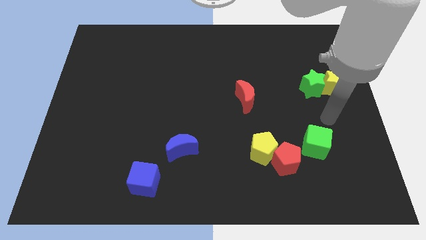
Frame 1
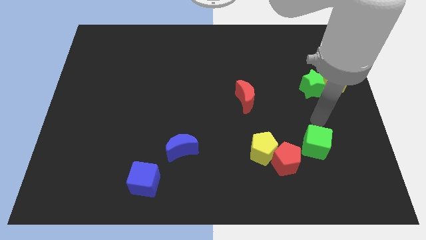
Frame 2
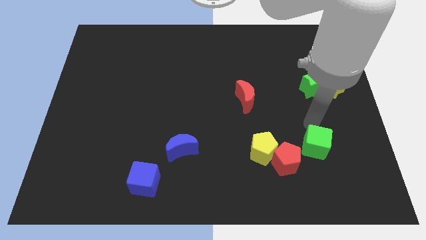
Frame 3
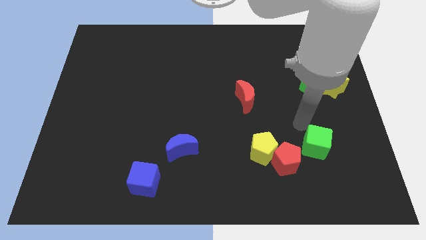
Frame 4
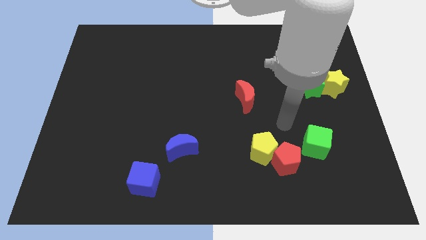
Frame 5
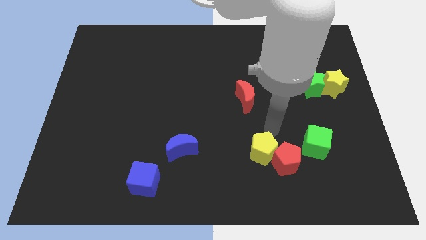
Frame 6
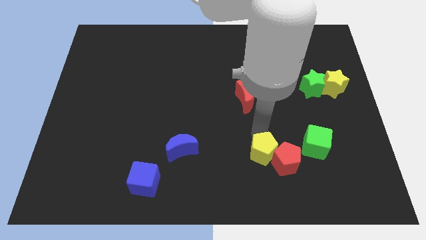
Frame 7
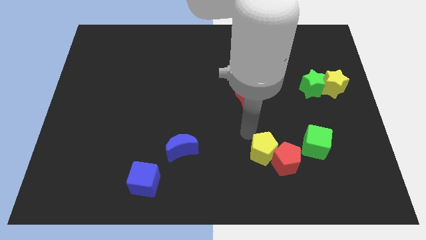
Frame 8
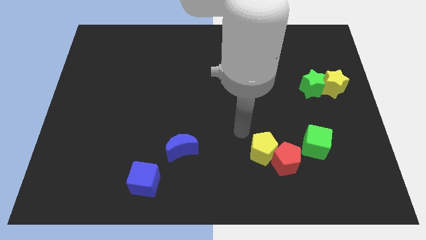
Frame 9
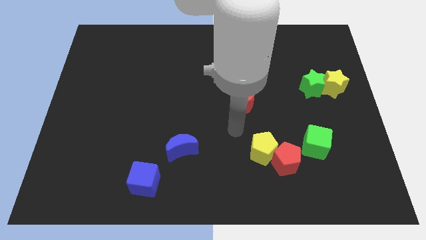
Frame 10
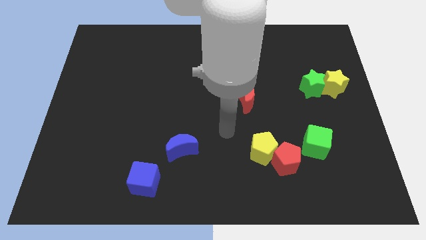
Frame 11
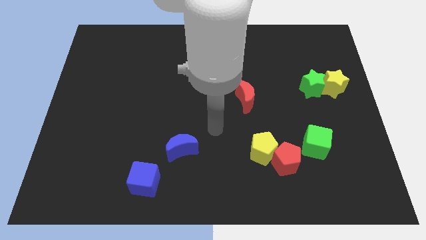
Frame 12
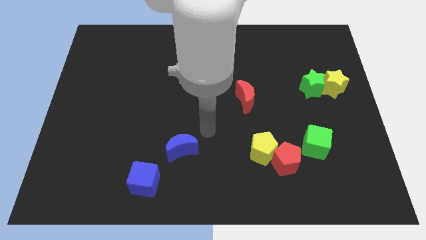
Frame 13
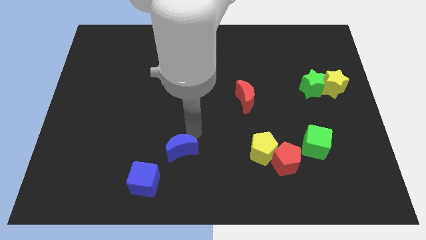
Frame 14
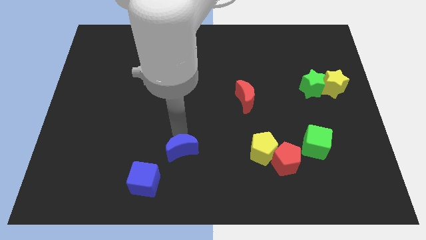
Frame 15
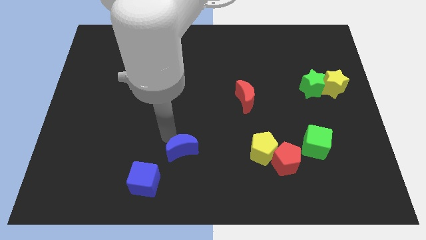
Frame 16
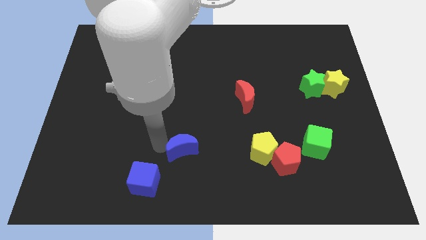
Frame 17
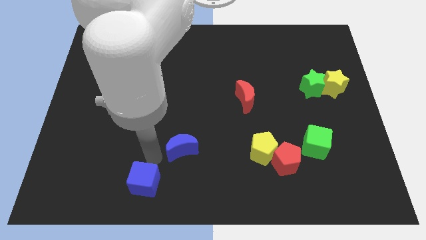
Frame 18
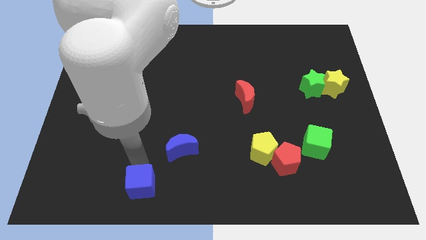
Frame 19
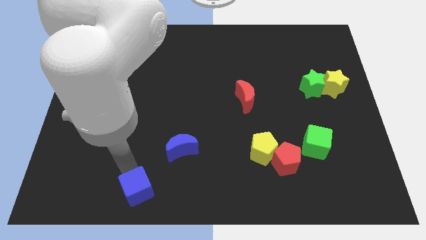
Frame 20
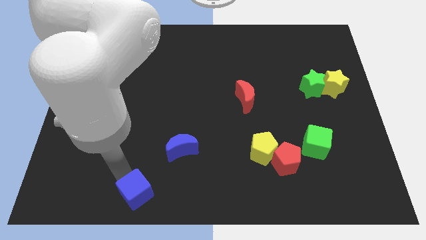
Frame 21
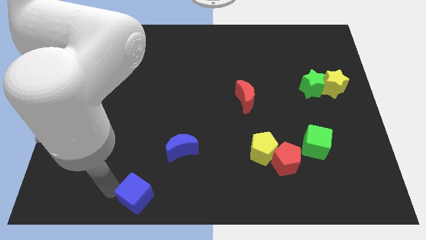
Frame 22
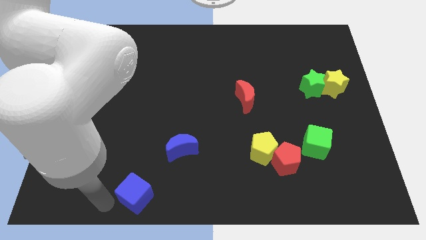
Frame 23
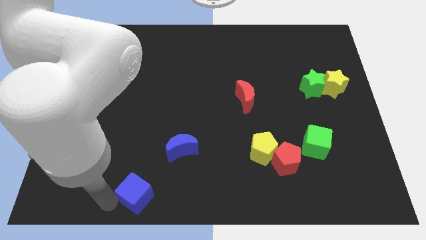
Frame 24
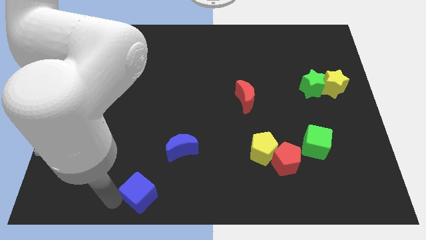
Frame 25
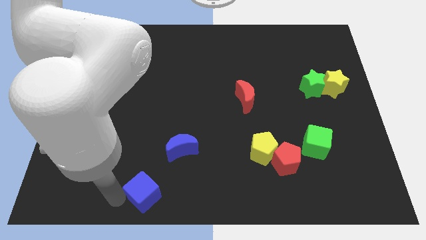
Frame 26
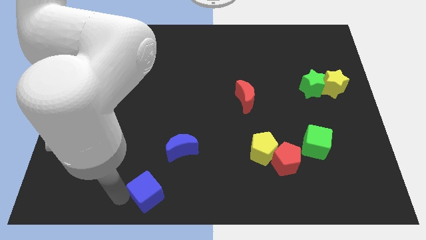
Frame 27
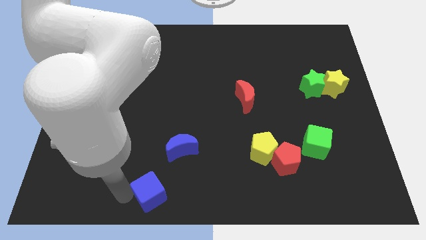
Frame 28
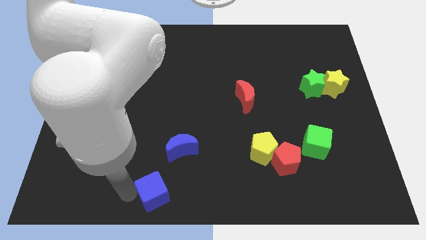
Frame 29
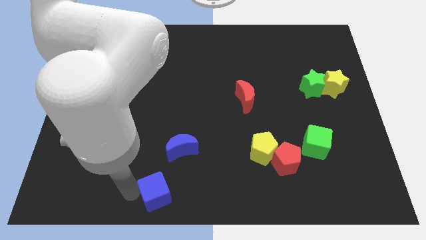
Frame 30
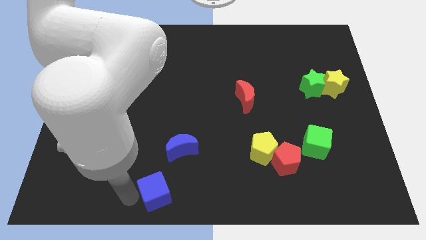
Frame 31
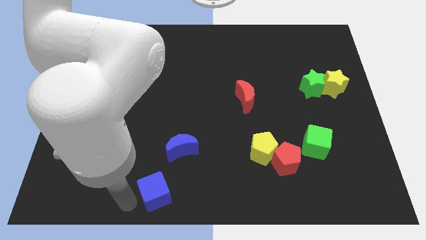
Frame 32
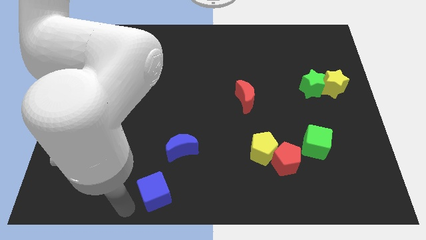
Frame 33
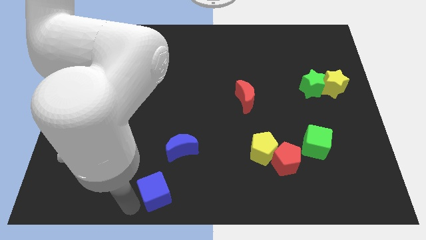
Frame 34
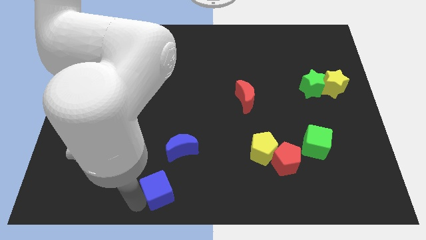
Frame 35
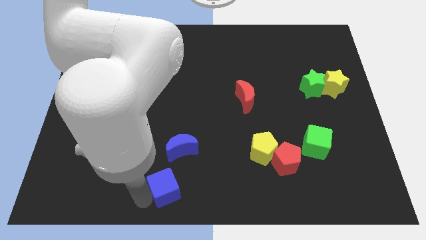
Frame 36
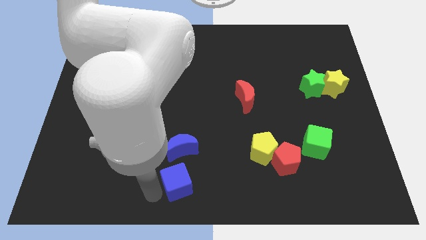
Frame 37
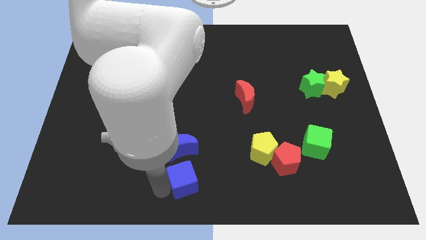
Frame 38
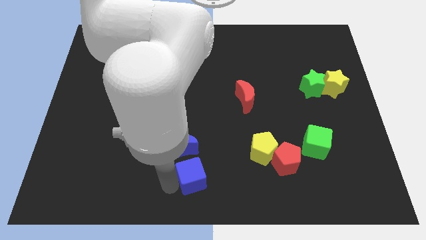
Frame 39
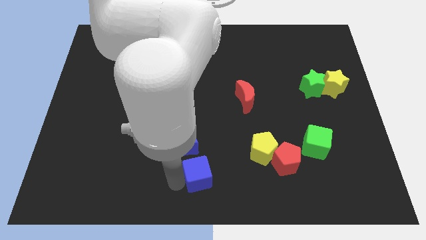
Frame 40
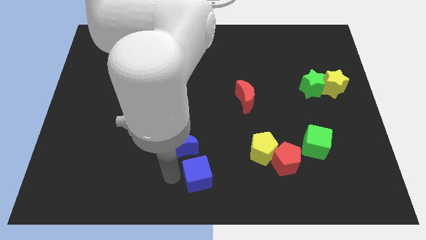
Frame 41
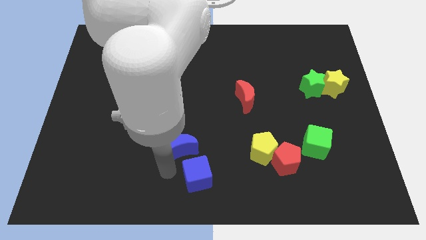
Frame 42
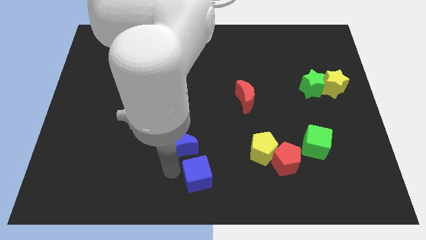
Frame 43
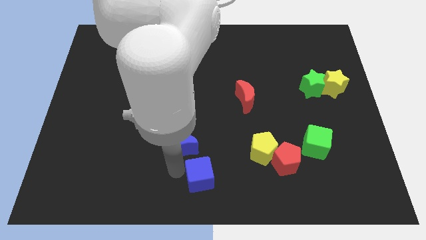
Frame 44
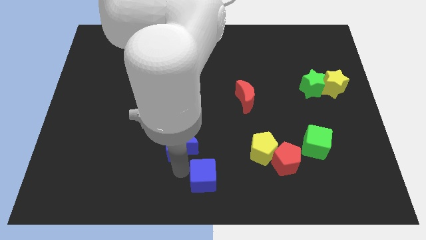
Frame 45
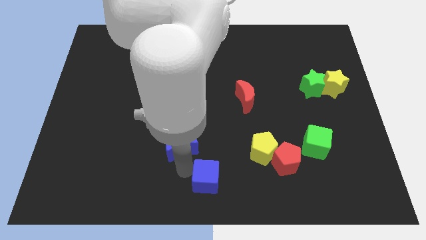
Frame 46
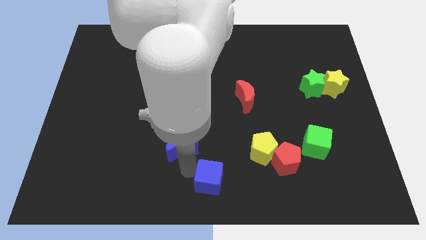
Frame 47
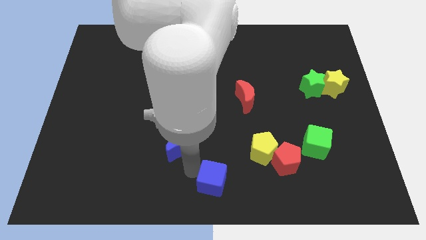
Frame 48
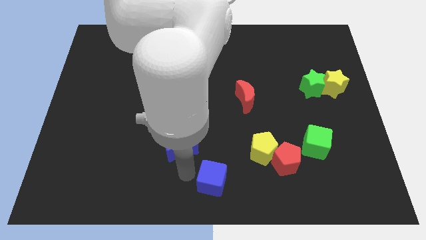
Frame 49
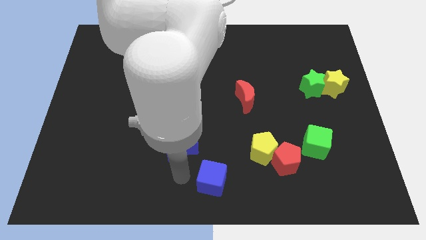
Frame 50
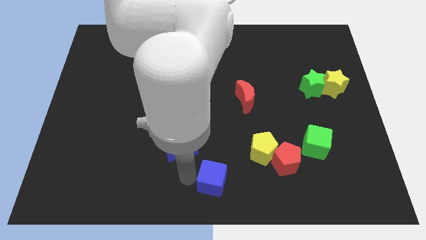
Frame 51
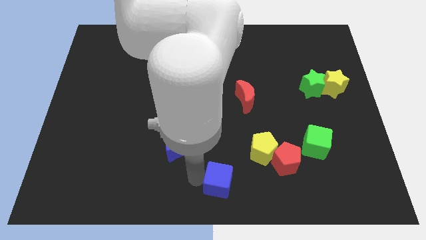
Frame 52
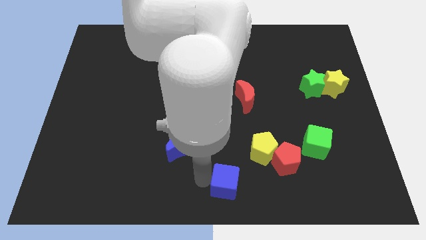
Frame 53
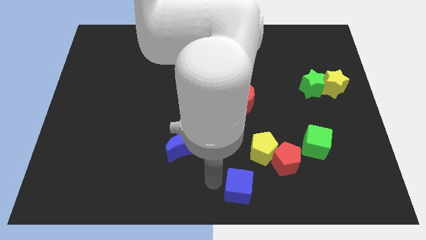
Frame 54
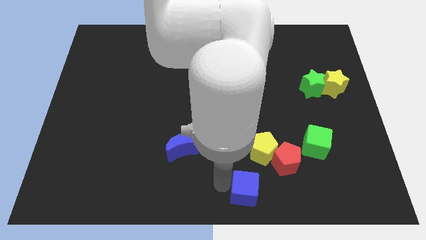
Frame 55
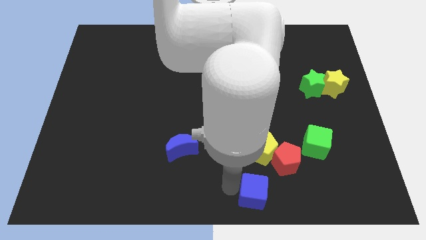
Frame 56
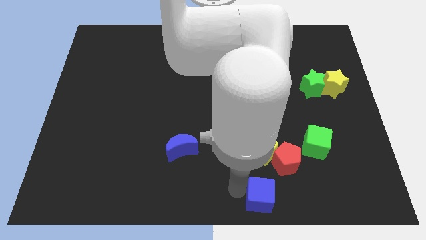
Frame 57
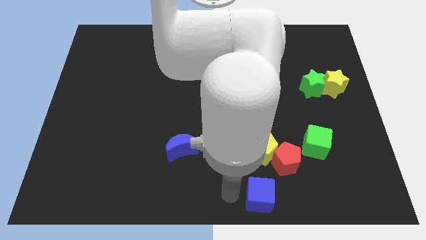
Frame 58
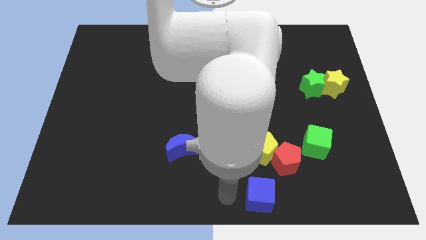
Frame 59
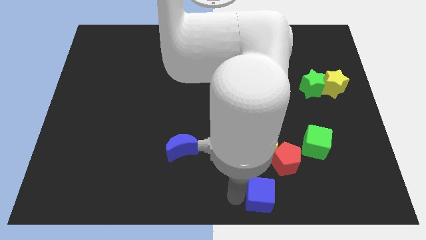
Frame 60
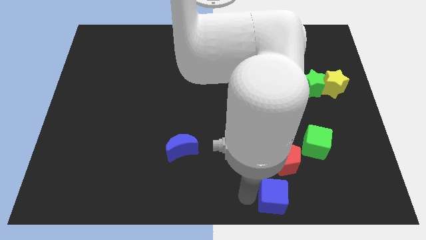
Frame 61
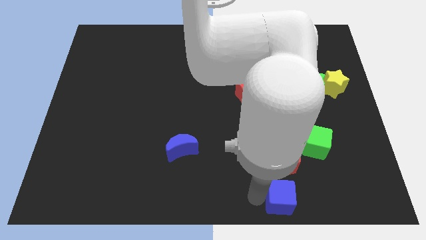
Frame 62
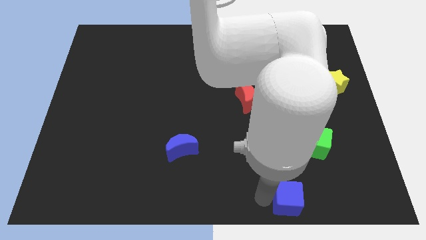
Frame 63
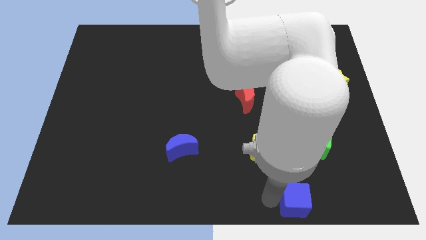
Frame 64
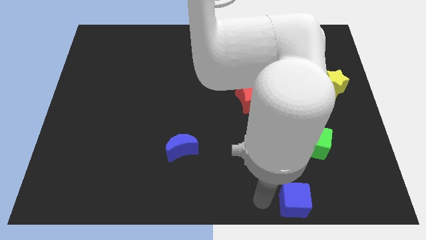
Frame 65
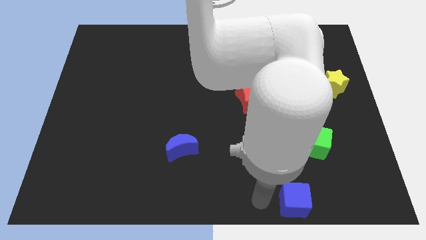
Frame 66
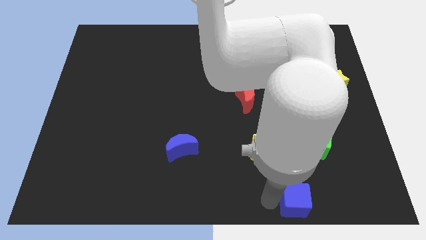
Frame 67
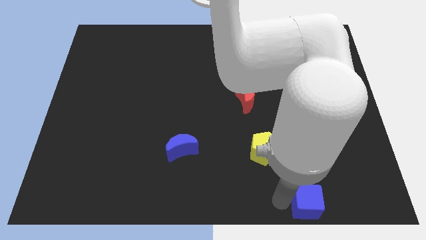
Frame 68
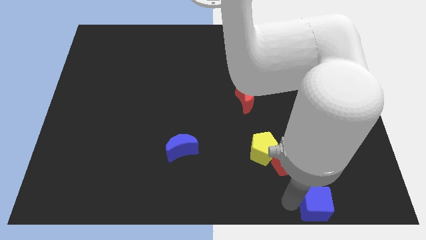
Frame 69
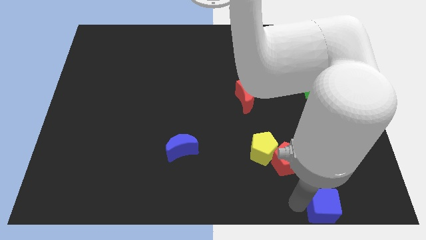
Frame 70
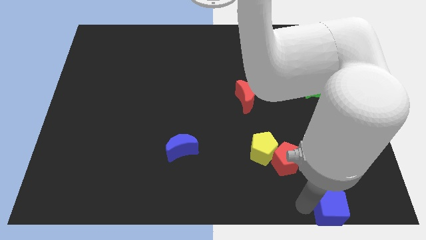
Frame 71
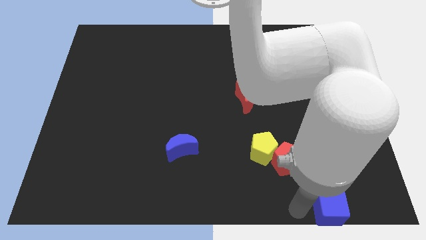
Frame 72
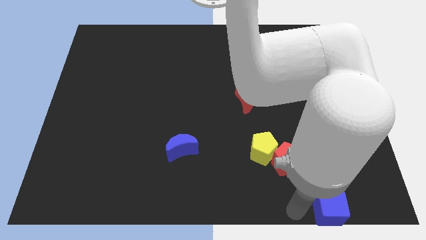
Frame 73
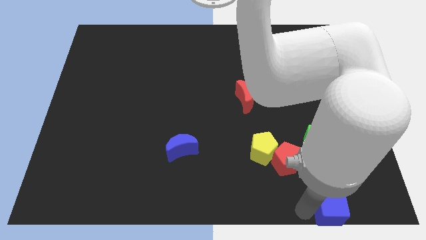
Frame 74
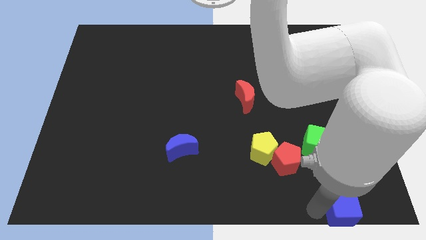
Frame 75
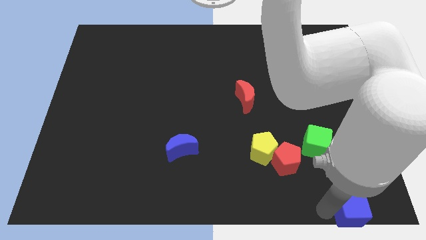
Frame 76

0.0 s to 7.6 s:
push the blue cube to the lower right corner
